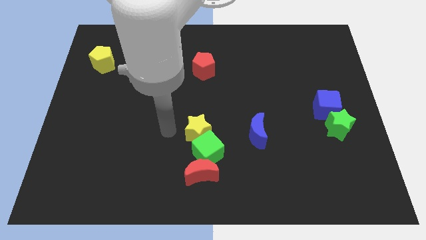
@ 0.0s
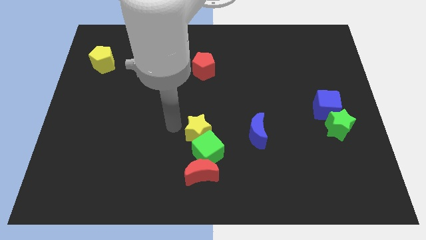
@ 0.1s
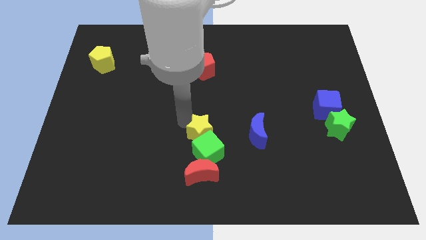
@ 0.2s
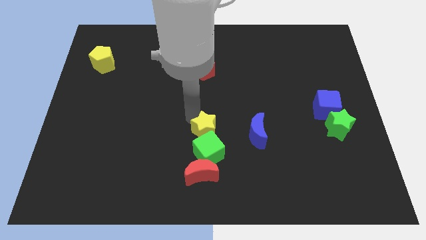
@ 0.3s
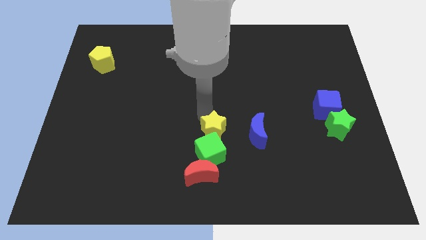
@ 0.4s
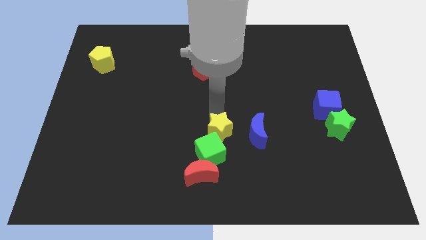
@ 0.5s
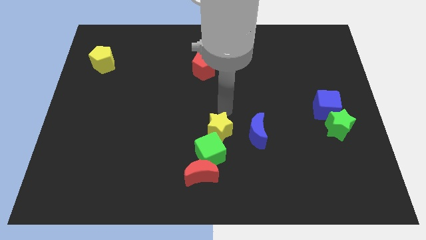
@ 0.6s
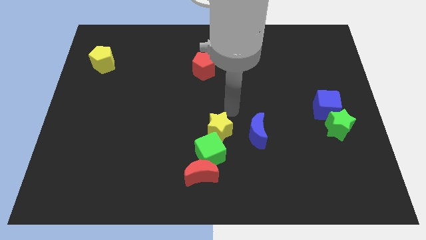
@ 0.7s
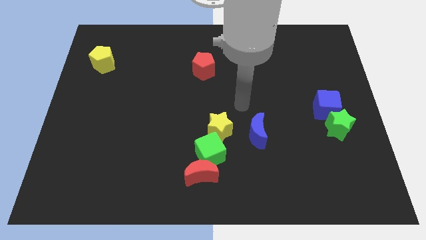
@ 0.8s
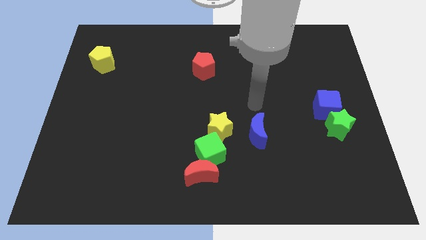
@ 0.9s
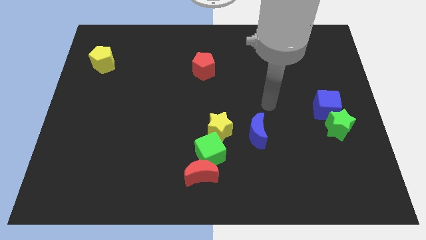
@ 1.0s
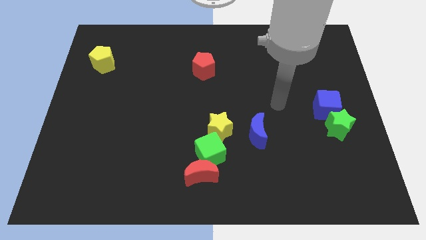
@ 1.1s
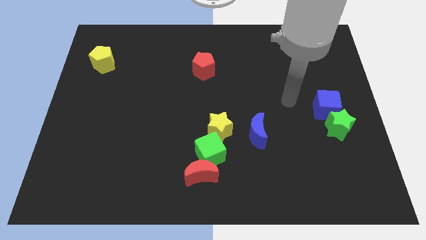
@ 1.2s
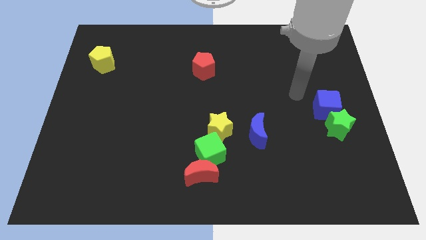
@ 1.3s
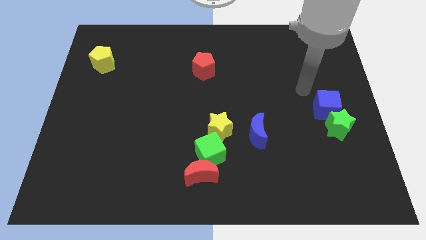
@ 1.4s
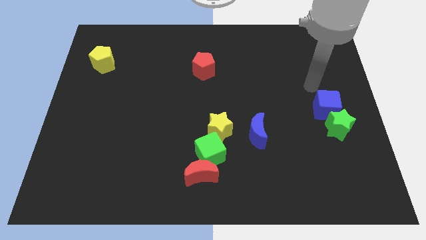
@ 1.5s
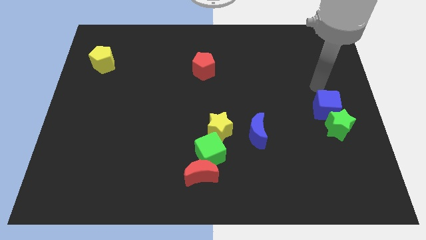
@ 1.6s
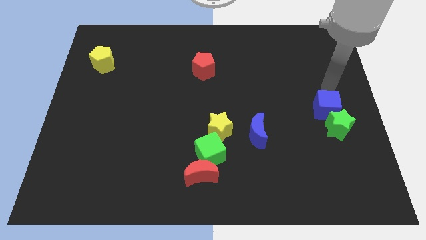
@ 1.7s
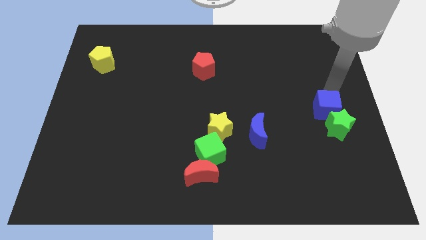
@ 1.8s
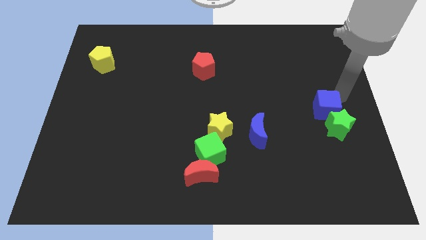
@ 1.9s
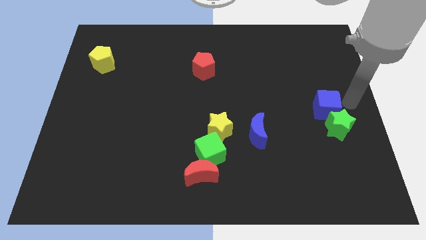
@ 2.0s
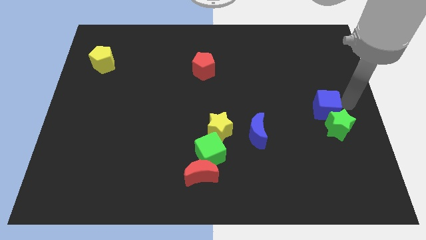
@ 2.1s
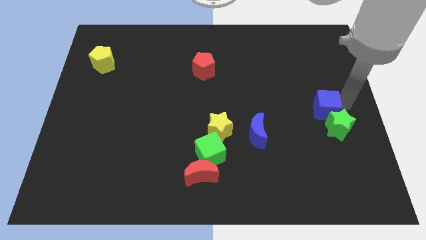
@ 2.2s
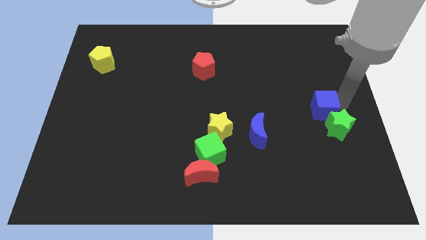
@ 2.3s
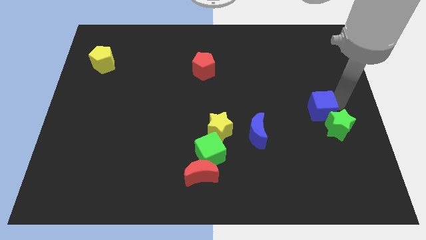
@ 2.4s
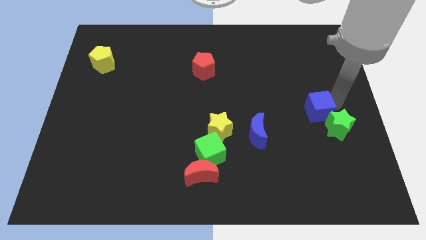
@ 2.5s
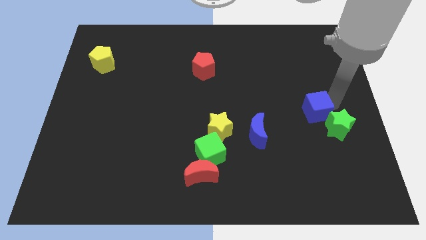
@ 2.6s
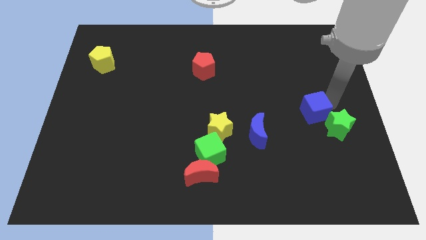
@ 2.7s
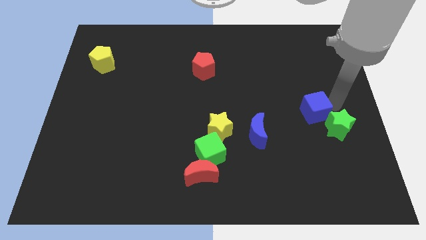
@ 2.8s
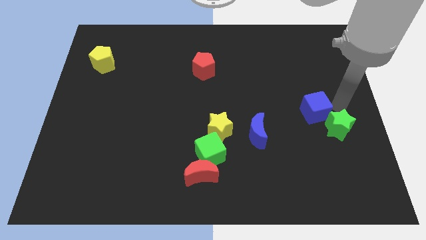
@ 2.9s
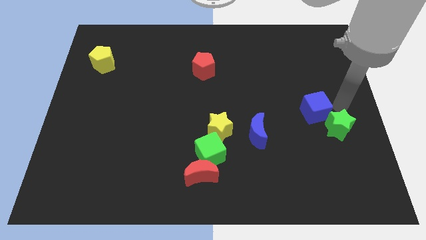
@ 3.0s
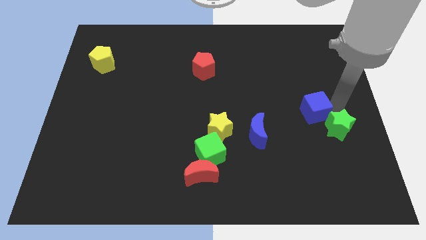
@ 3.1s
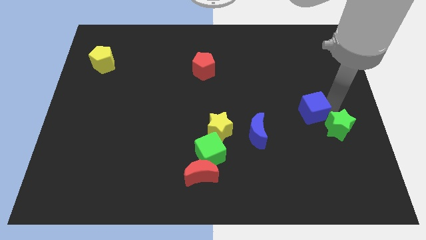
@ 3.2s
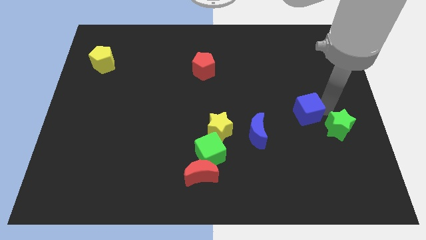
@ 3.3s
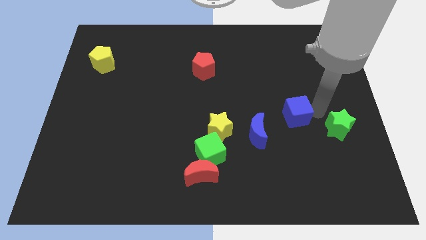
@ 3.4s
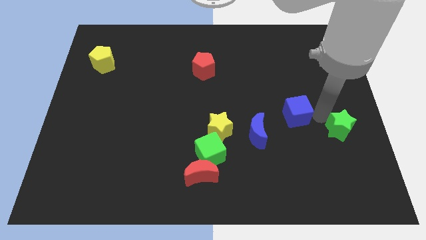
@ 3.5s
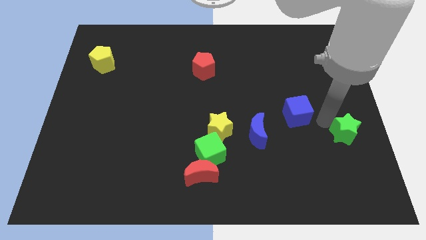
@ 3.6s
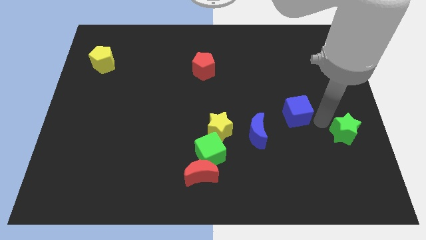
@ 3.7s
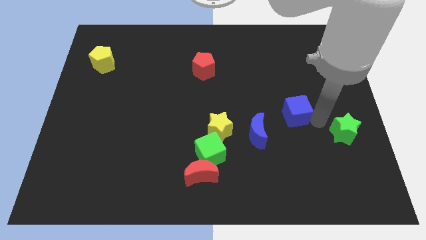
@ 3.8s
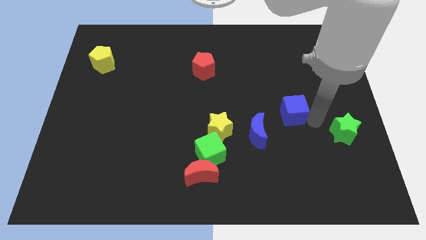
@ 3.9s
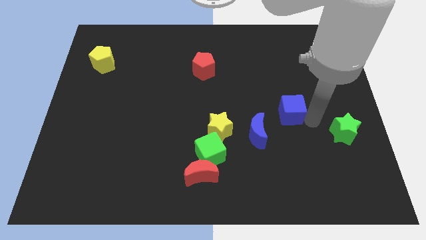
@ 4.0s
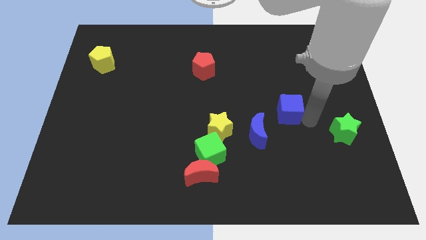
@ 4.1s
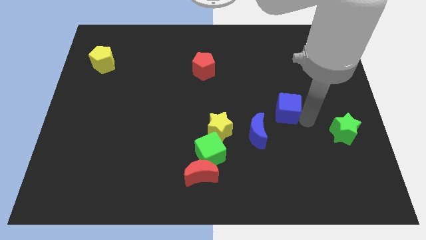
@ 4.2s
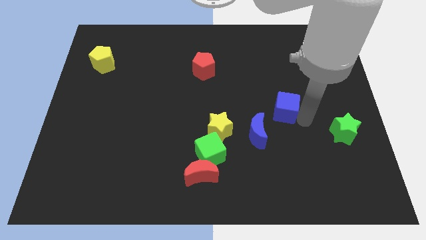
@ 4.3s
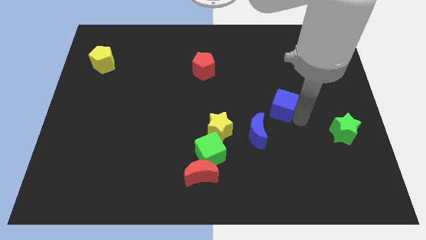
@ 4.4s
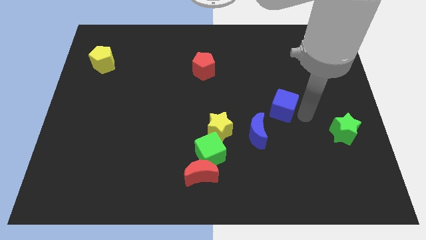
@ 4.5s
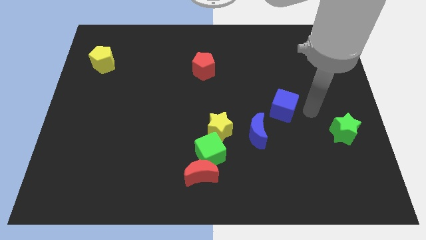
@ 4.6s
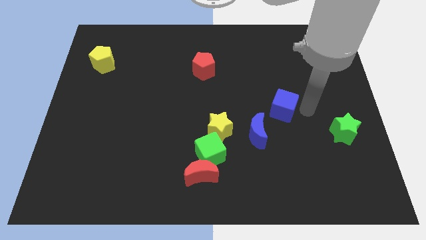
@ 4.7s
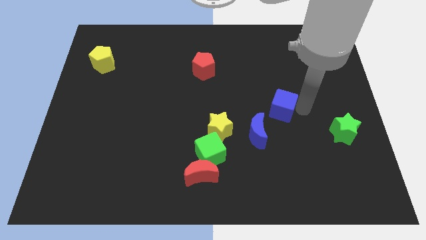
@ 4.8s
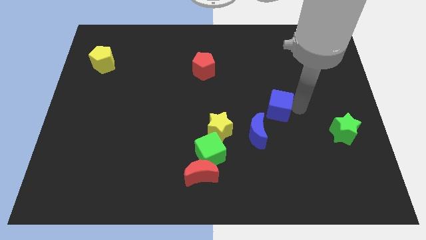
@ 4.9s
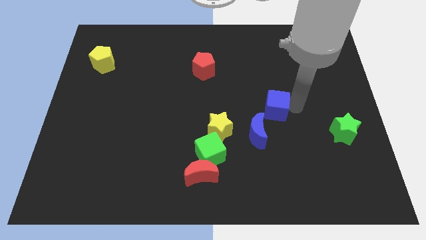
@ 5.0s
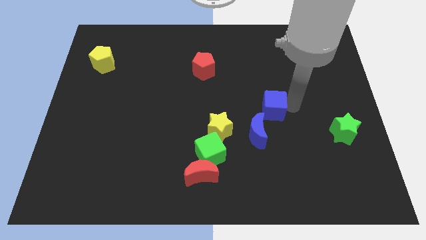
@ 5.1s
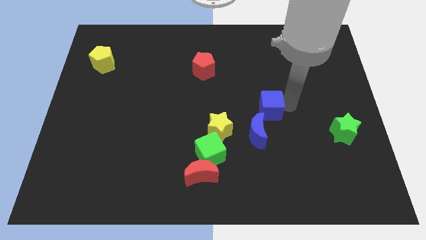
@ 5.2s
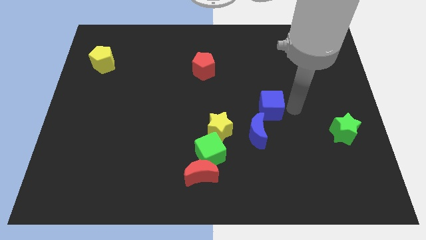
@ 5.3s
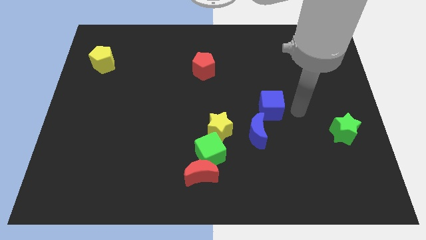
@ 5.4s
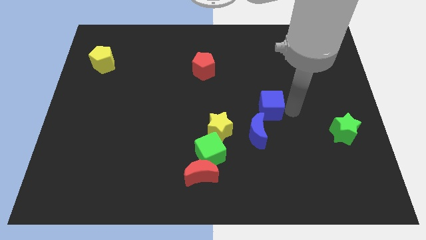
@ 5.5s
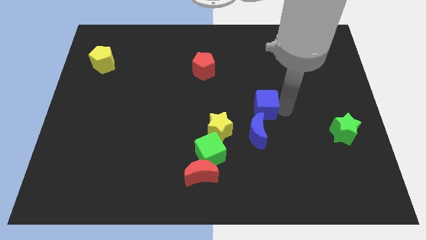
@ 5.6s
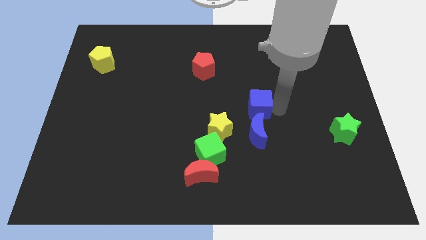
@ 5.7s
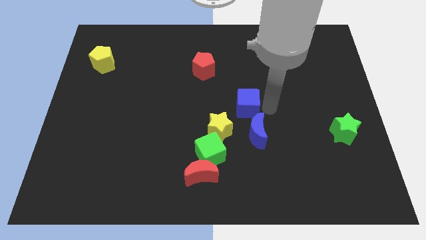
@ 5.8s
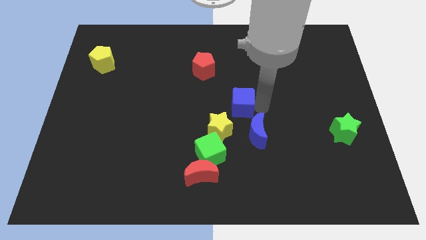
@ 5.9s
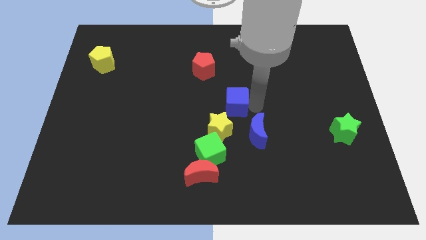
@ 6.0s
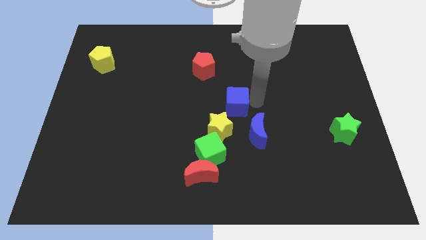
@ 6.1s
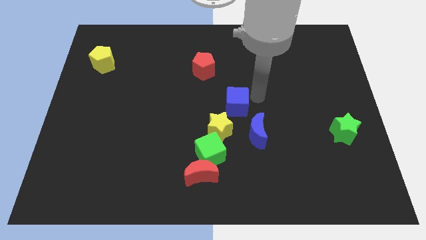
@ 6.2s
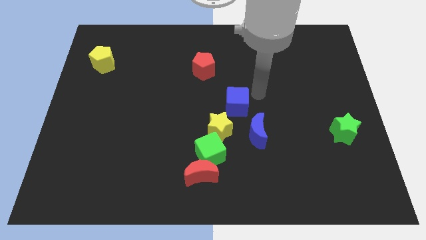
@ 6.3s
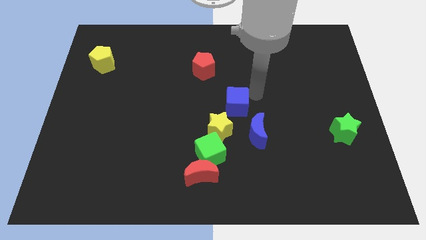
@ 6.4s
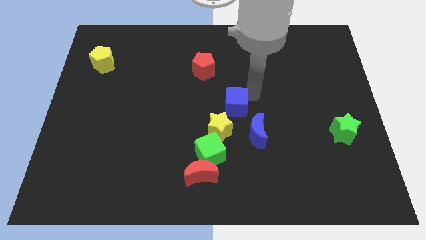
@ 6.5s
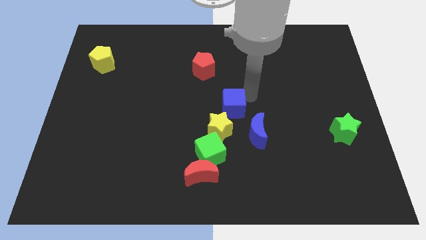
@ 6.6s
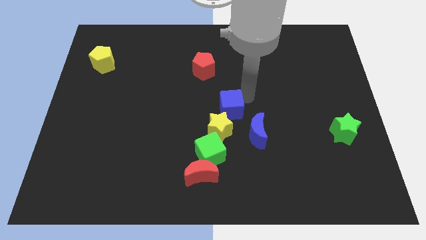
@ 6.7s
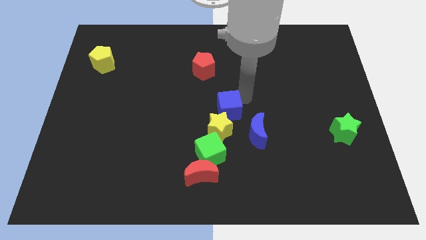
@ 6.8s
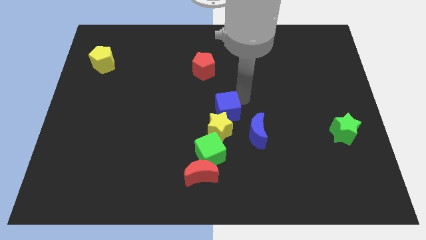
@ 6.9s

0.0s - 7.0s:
put the blue cube next to the yellow star
